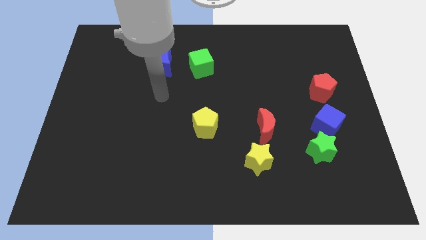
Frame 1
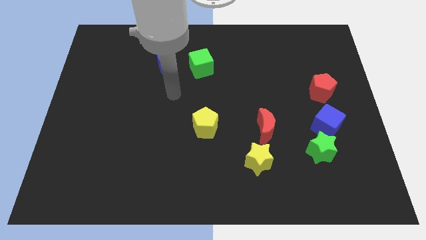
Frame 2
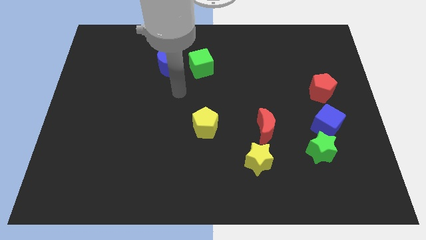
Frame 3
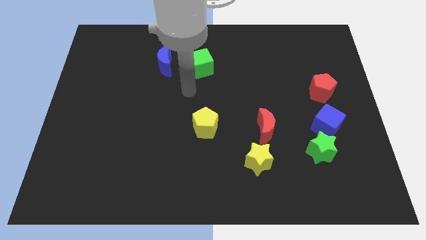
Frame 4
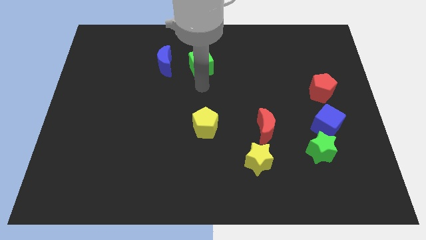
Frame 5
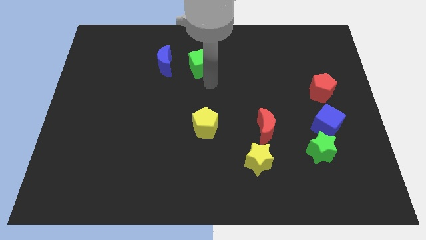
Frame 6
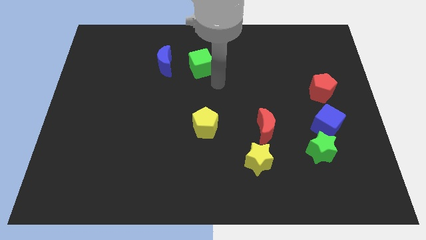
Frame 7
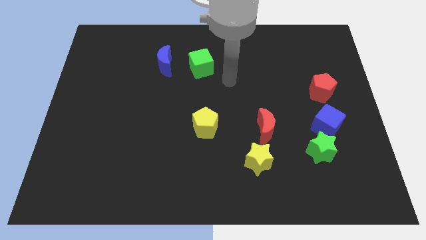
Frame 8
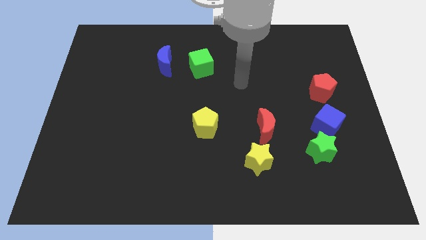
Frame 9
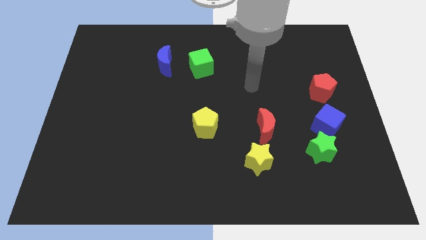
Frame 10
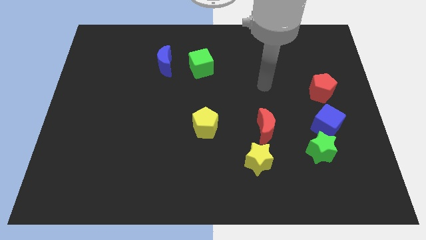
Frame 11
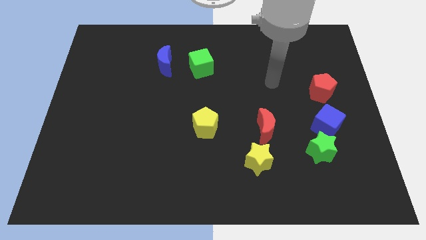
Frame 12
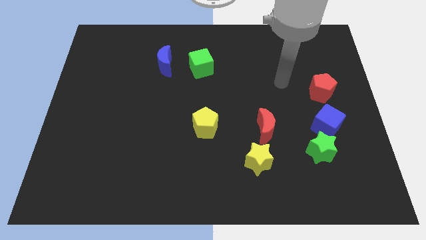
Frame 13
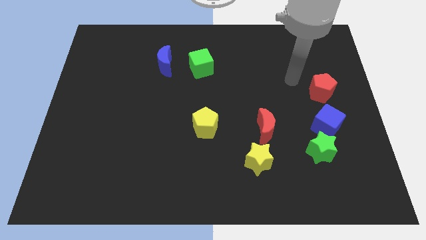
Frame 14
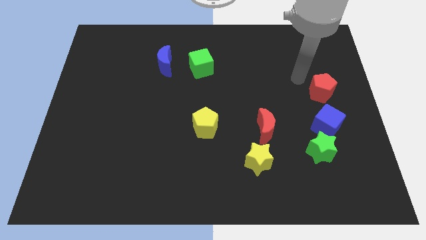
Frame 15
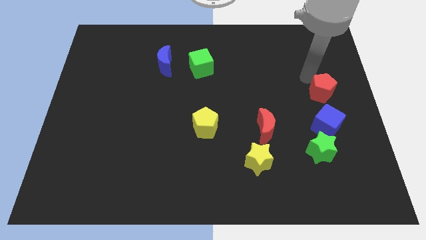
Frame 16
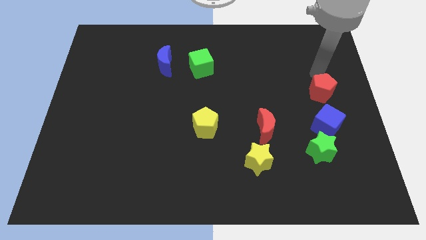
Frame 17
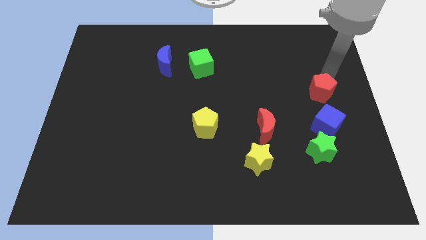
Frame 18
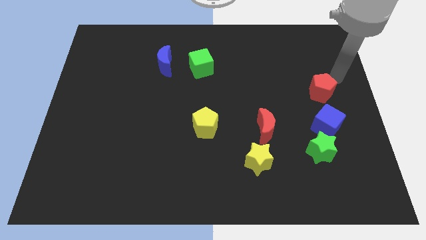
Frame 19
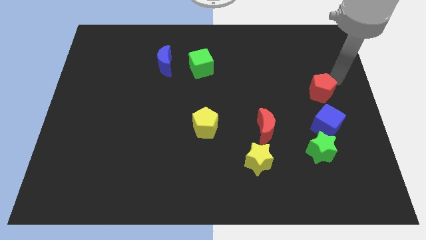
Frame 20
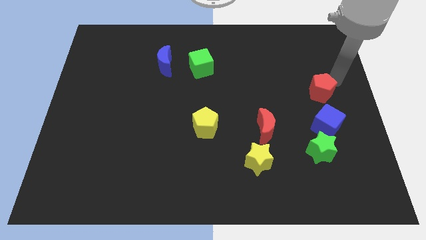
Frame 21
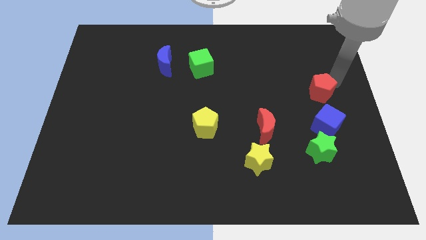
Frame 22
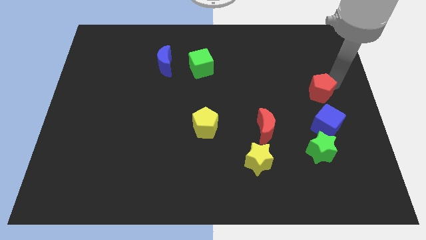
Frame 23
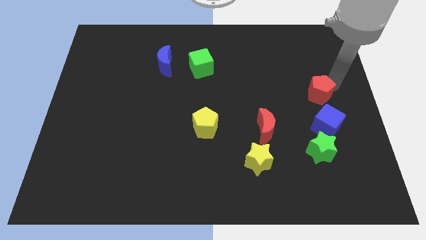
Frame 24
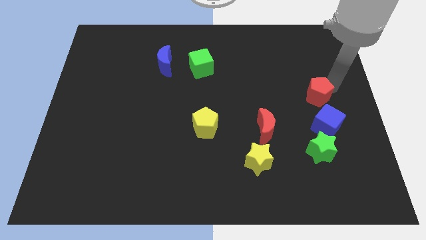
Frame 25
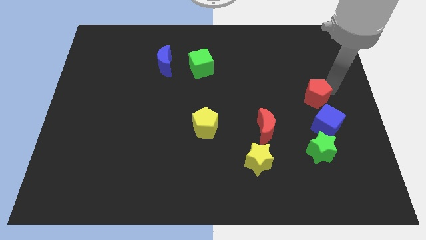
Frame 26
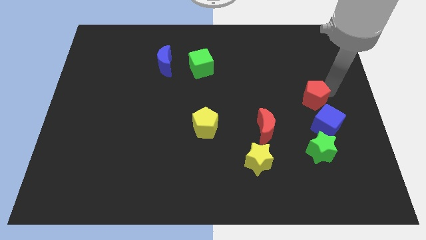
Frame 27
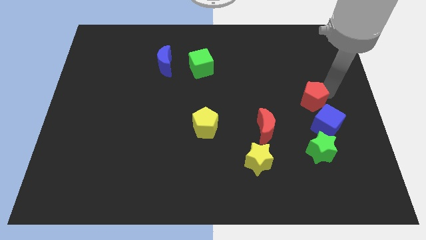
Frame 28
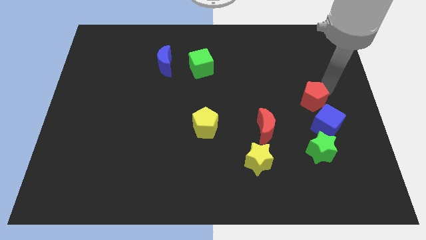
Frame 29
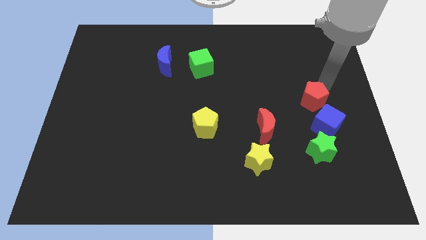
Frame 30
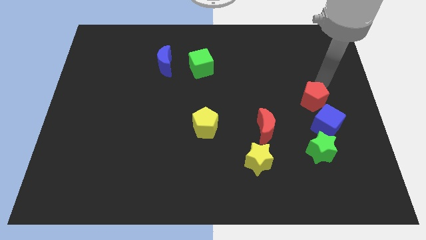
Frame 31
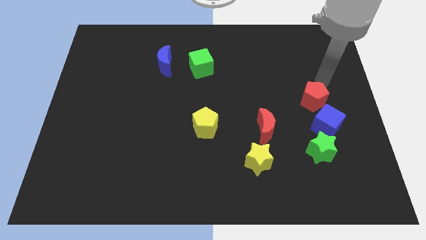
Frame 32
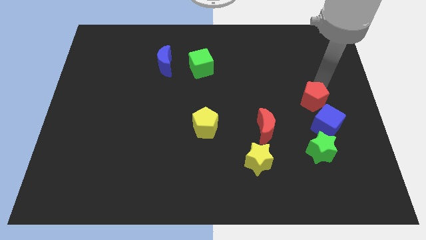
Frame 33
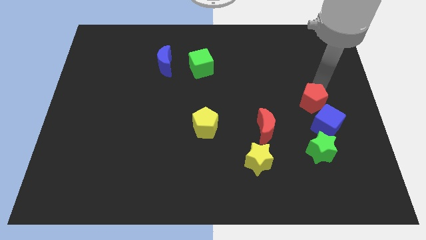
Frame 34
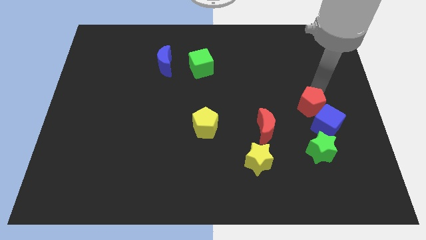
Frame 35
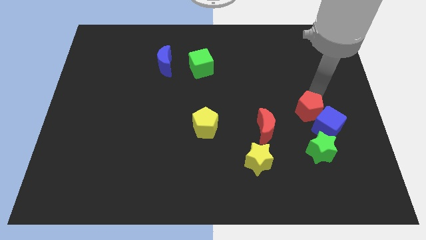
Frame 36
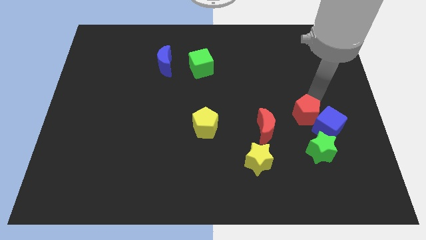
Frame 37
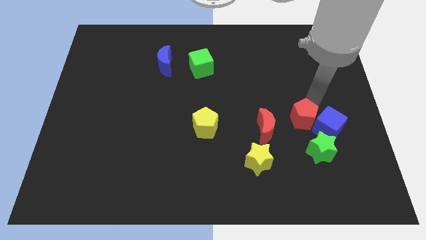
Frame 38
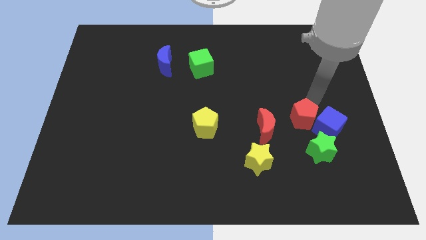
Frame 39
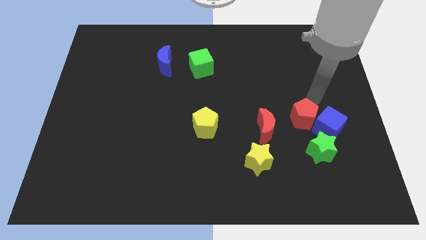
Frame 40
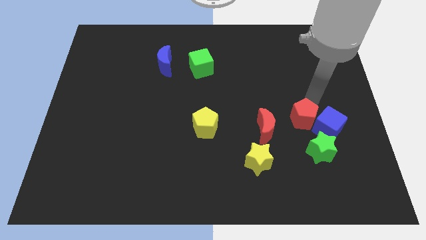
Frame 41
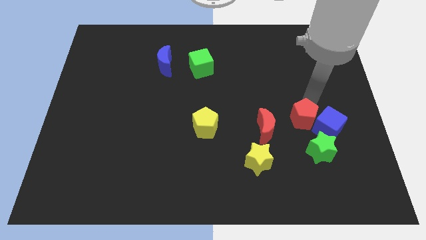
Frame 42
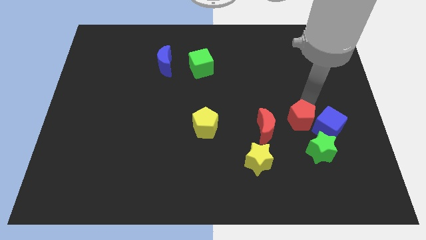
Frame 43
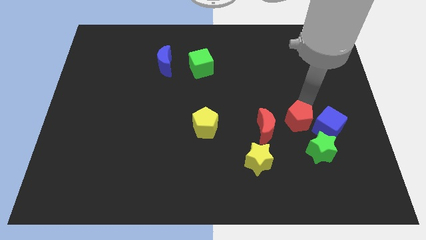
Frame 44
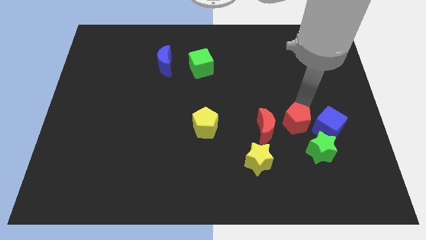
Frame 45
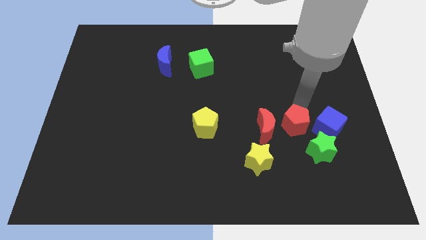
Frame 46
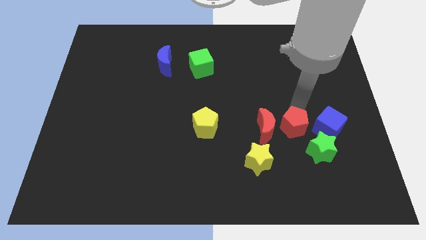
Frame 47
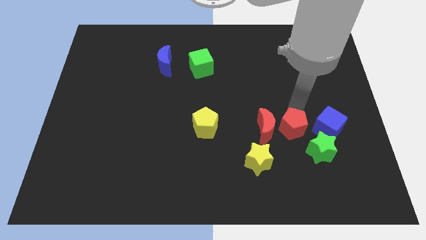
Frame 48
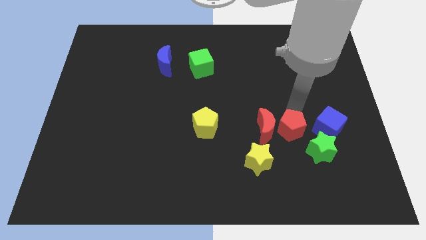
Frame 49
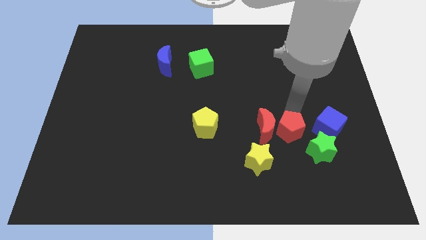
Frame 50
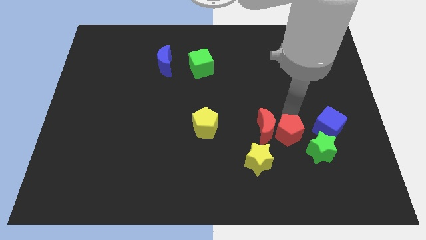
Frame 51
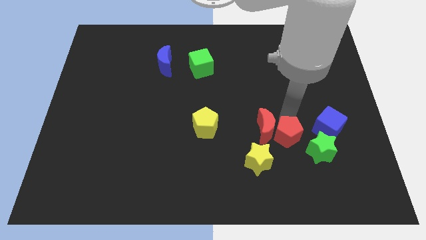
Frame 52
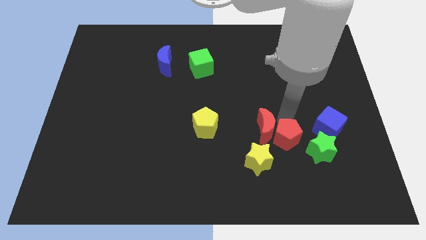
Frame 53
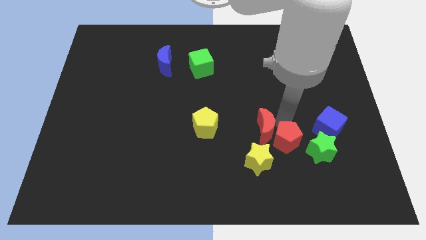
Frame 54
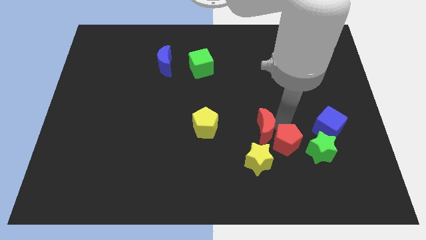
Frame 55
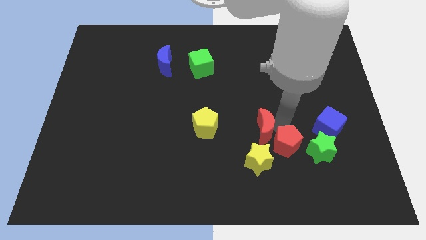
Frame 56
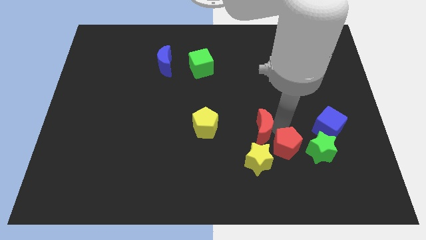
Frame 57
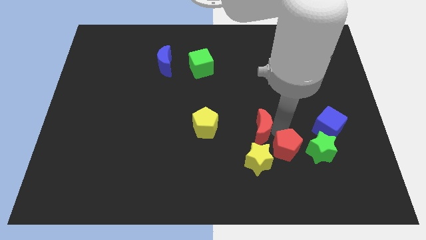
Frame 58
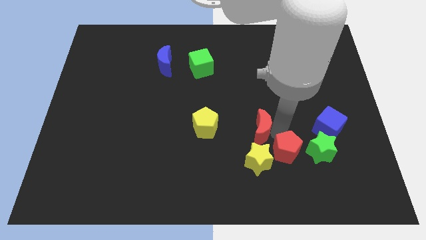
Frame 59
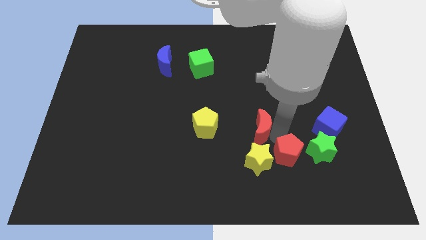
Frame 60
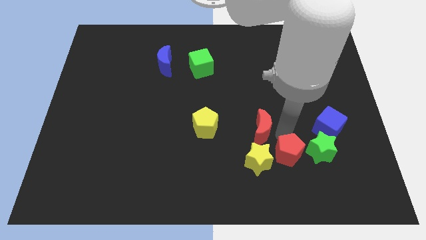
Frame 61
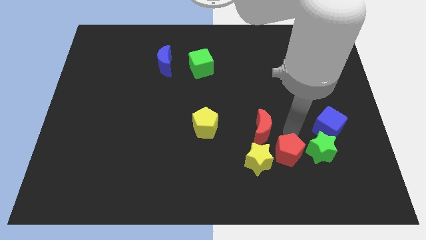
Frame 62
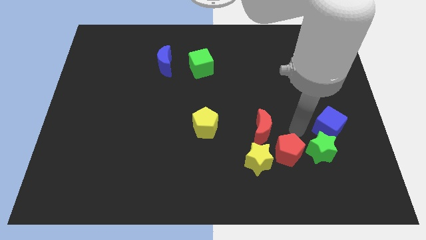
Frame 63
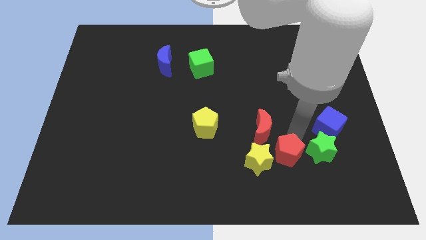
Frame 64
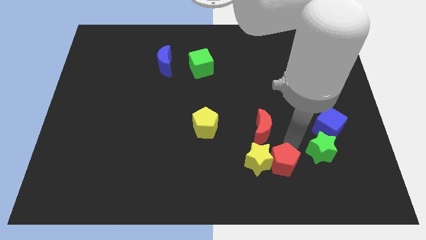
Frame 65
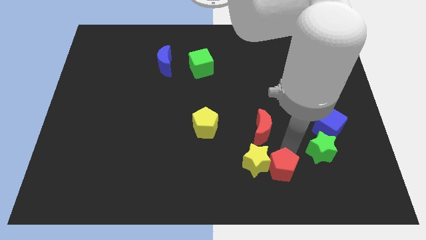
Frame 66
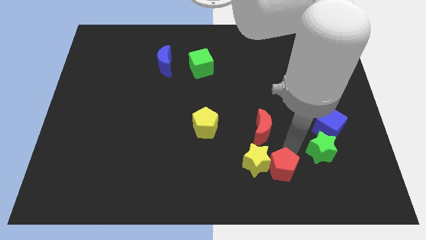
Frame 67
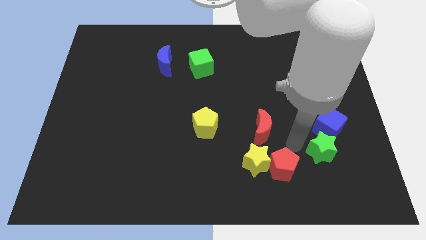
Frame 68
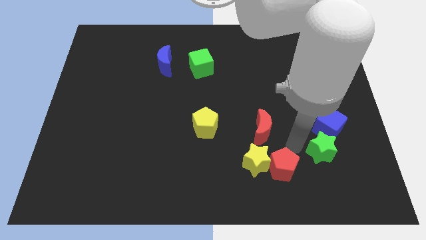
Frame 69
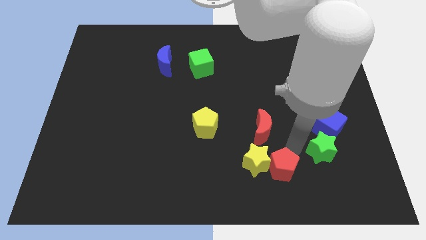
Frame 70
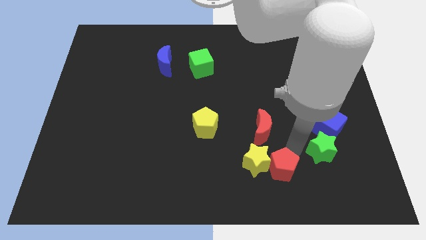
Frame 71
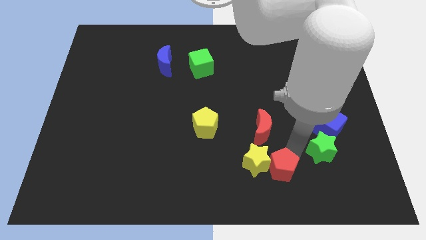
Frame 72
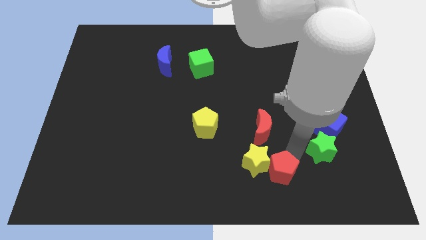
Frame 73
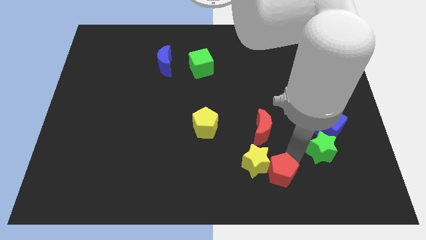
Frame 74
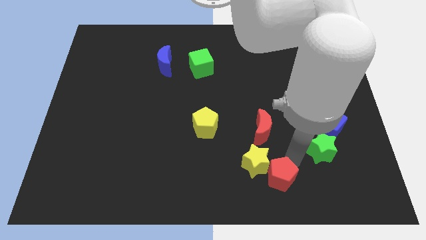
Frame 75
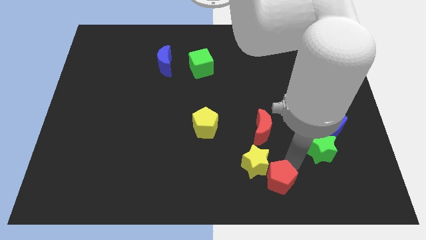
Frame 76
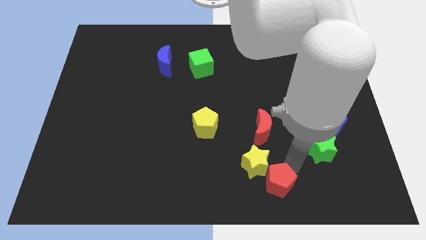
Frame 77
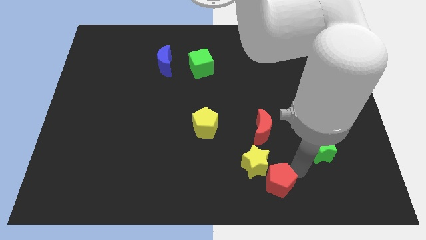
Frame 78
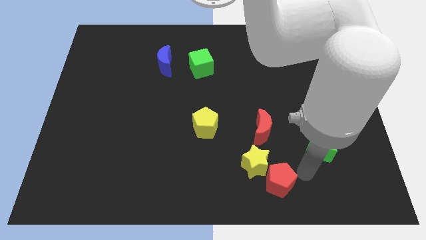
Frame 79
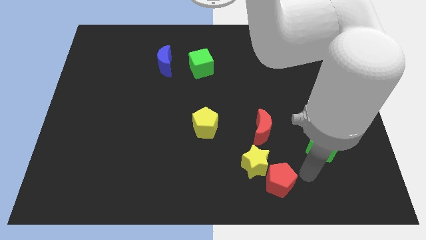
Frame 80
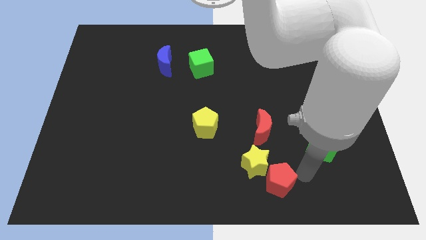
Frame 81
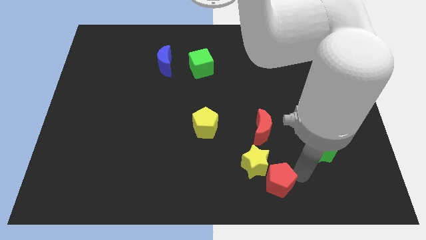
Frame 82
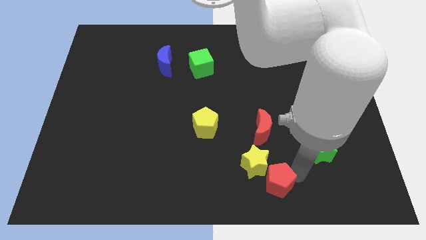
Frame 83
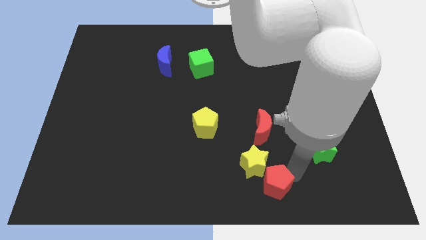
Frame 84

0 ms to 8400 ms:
put the red pentagon to the bottom
